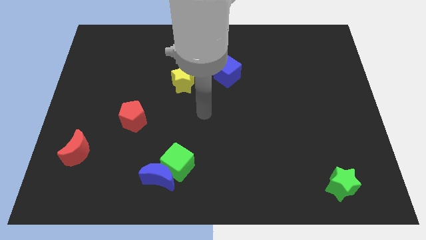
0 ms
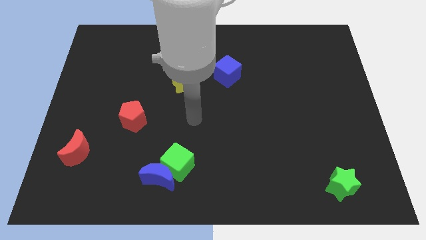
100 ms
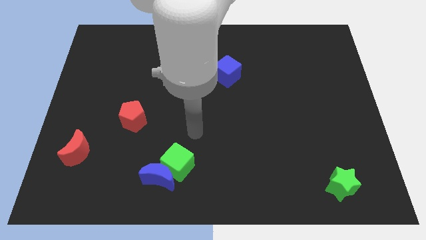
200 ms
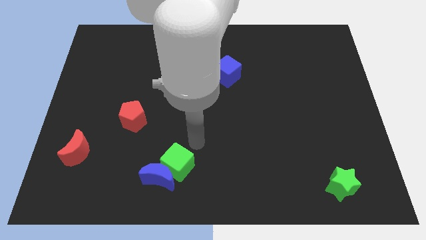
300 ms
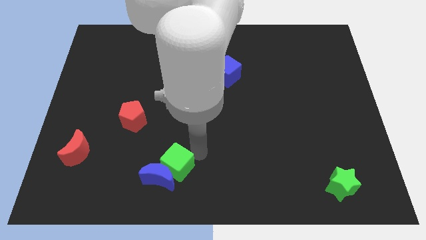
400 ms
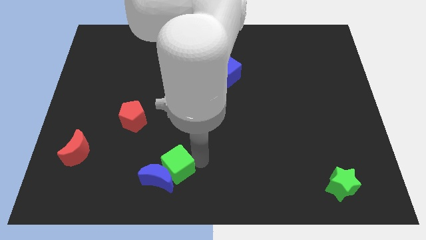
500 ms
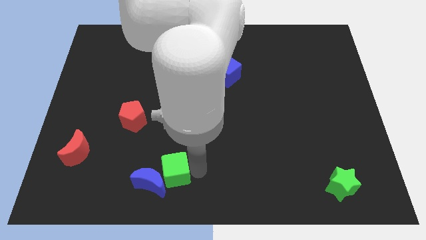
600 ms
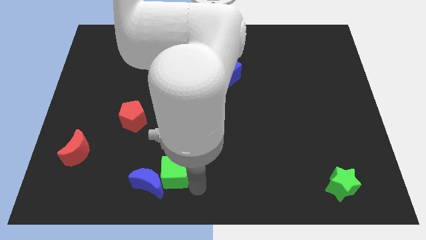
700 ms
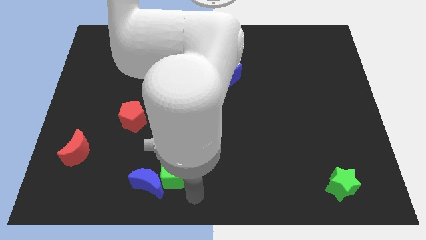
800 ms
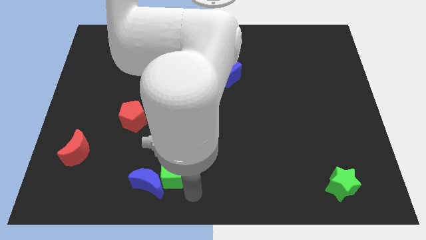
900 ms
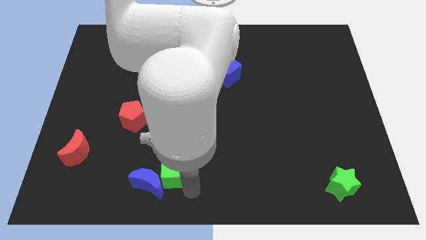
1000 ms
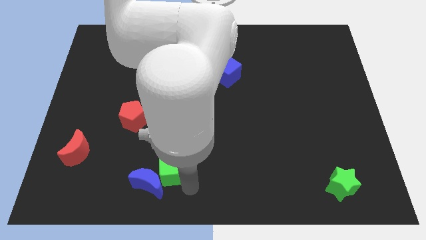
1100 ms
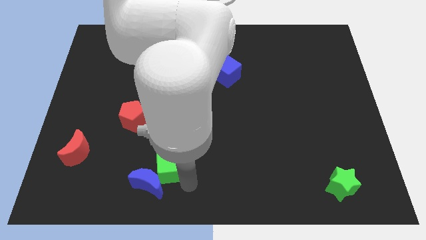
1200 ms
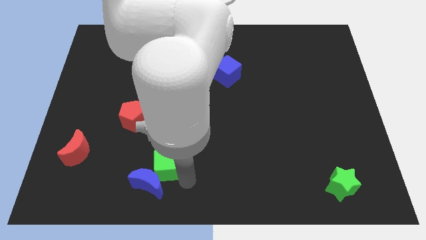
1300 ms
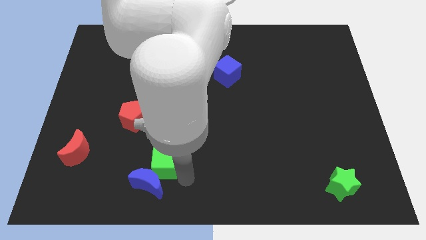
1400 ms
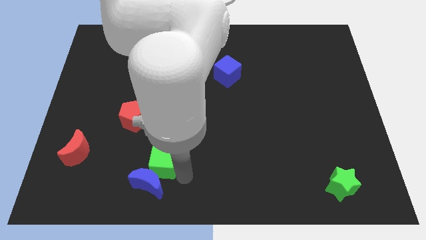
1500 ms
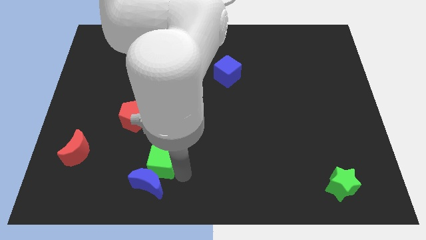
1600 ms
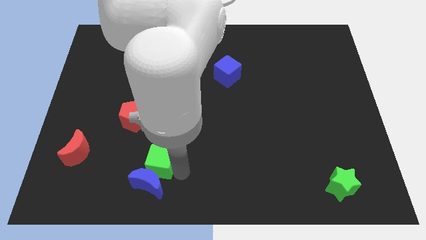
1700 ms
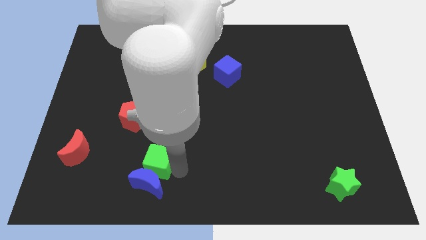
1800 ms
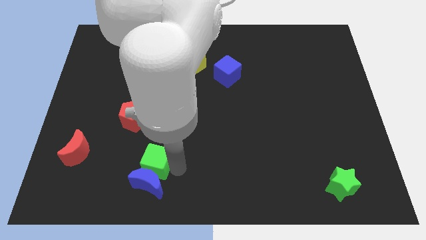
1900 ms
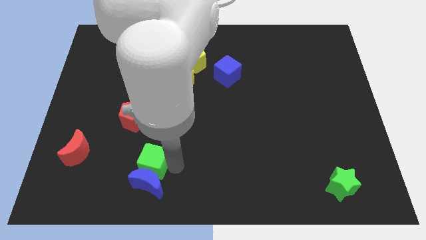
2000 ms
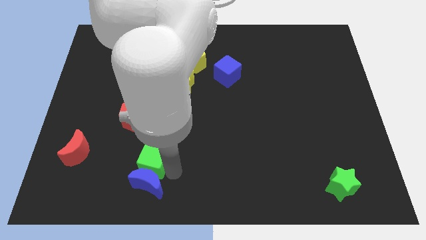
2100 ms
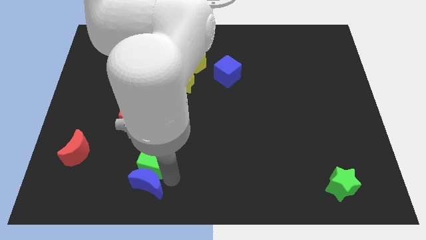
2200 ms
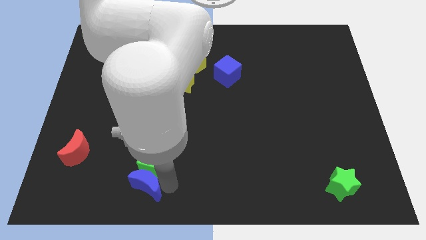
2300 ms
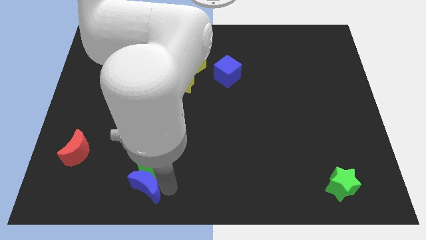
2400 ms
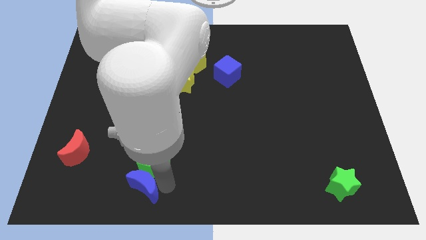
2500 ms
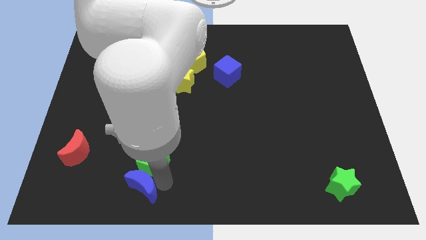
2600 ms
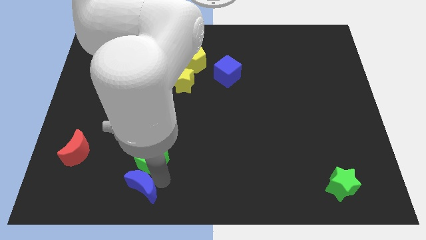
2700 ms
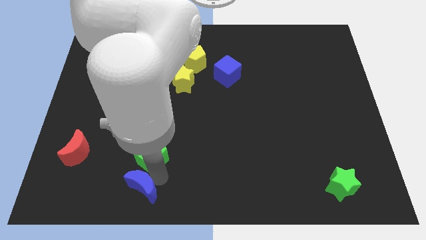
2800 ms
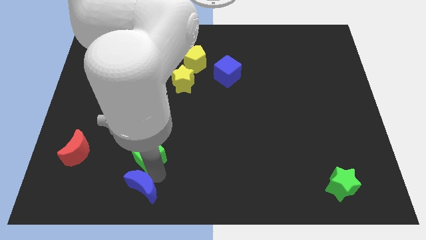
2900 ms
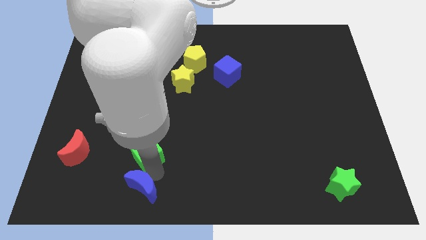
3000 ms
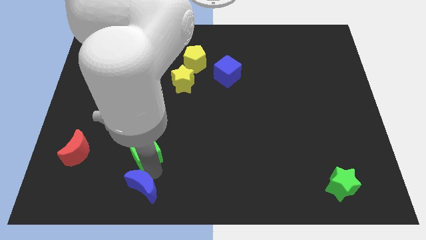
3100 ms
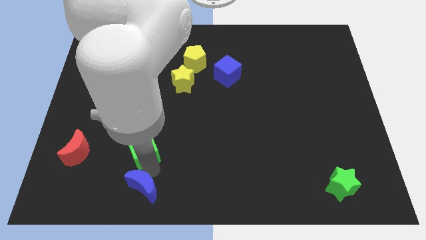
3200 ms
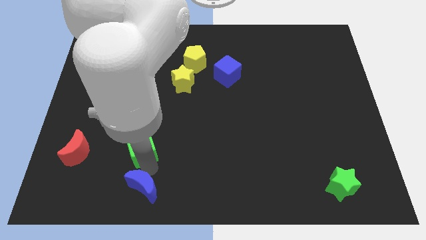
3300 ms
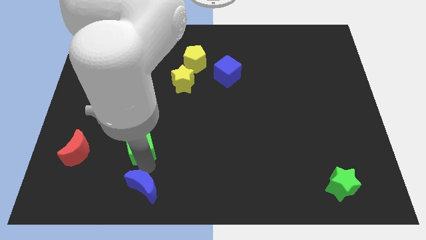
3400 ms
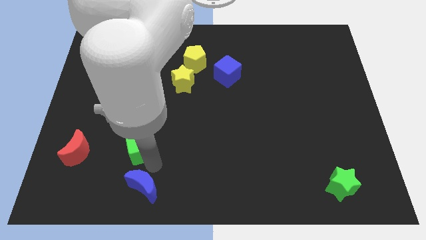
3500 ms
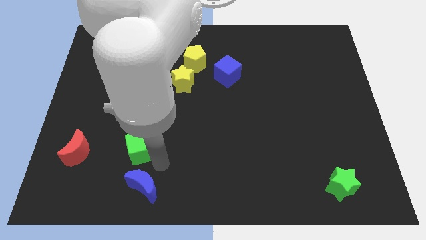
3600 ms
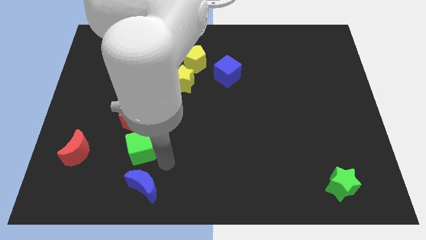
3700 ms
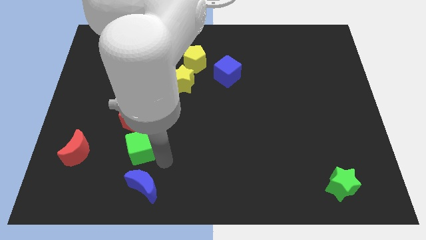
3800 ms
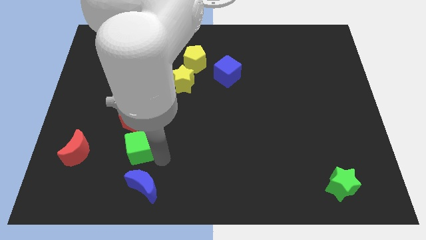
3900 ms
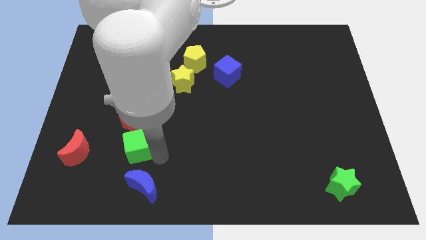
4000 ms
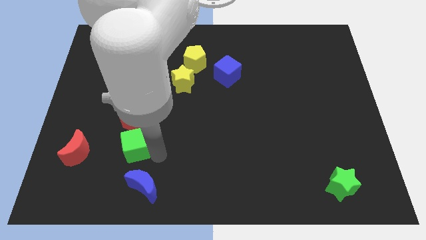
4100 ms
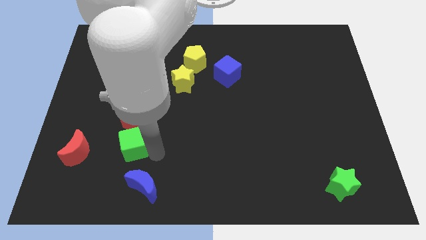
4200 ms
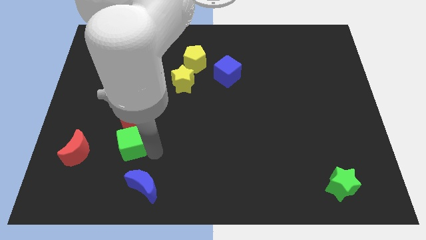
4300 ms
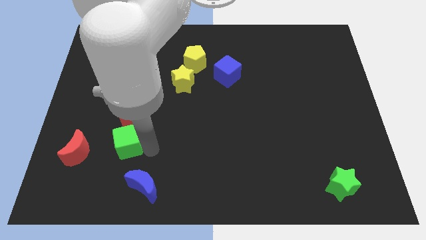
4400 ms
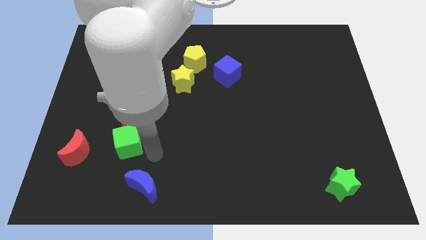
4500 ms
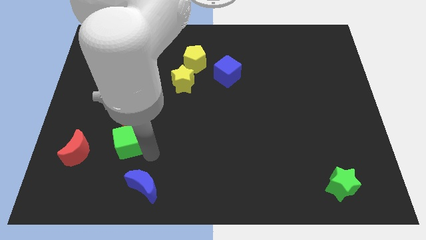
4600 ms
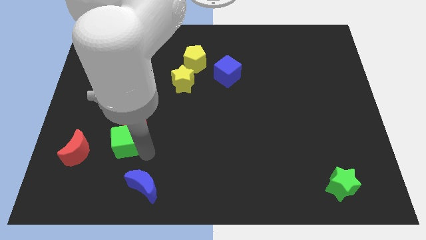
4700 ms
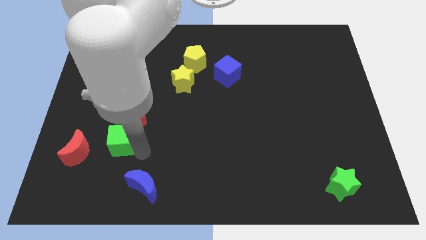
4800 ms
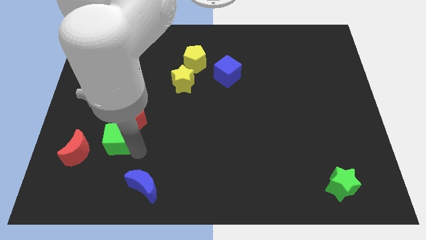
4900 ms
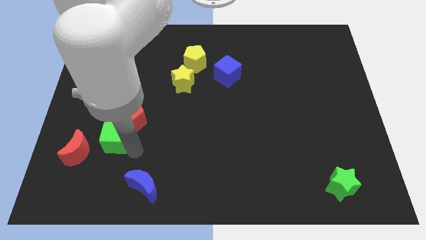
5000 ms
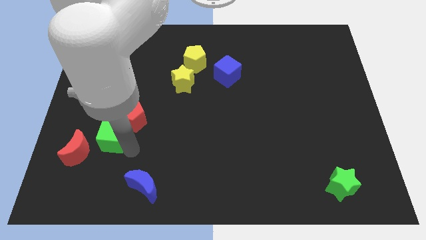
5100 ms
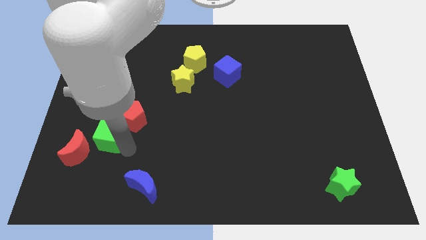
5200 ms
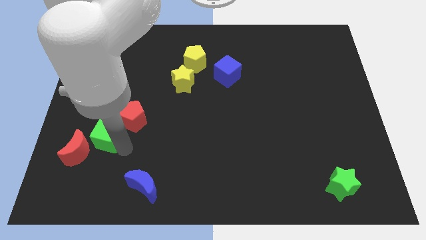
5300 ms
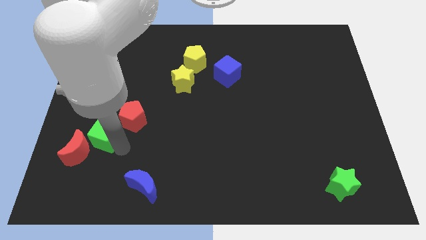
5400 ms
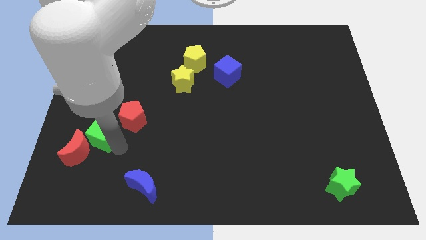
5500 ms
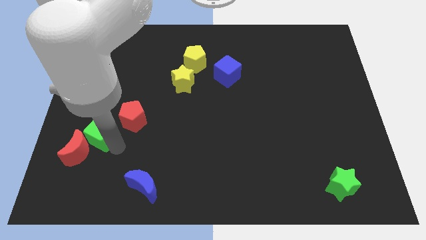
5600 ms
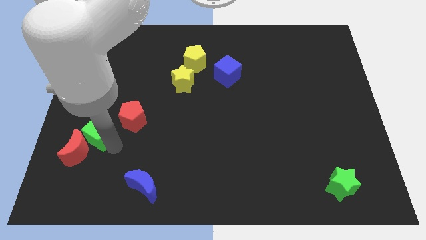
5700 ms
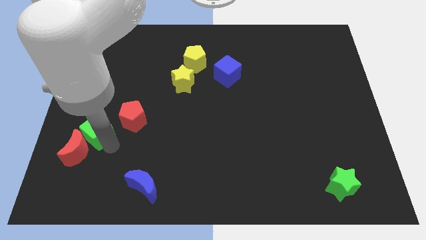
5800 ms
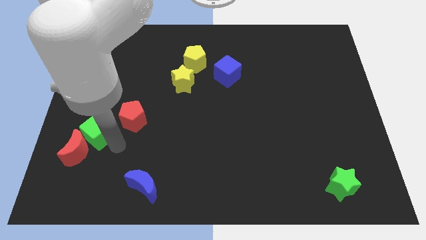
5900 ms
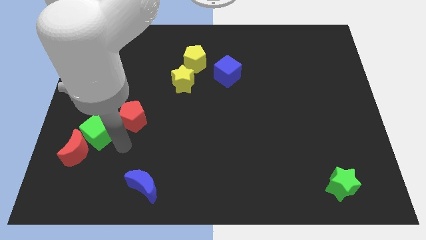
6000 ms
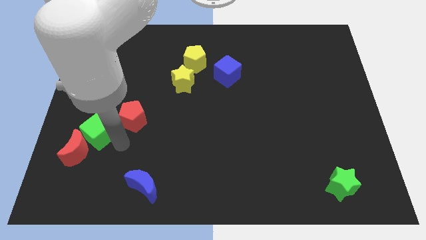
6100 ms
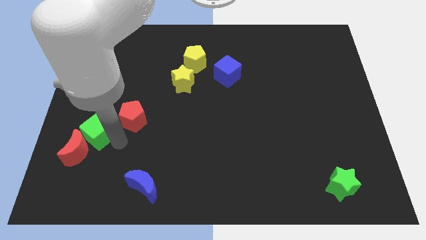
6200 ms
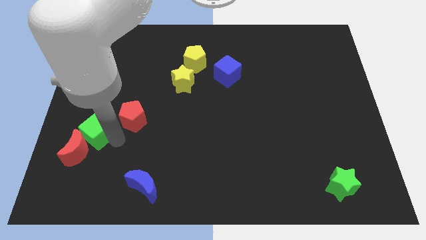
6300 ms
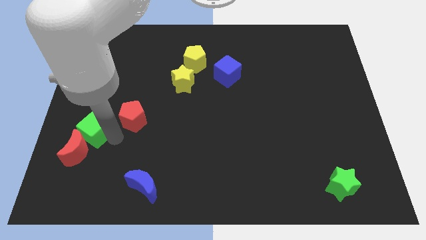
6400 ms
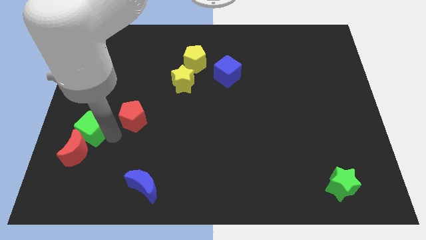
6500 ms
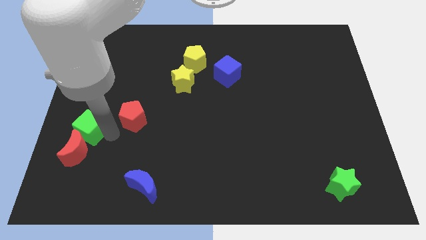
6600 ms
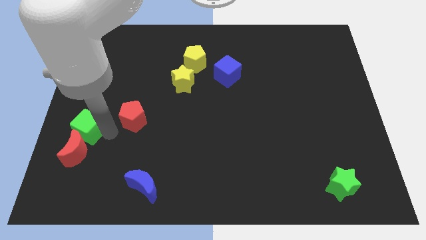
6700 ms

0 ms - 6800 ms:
push the green cube to the center left
